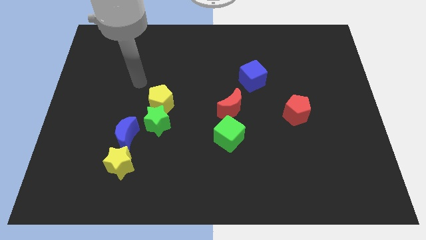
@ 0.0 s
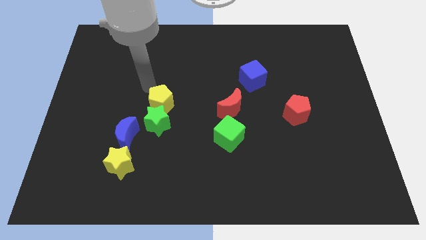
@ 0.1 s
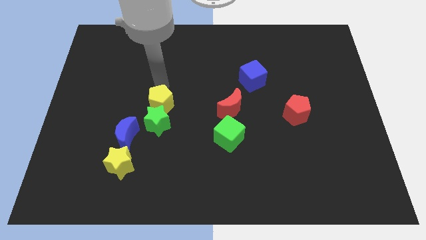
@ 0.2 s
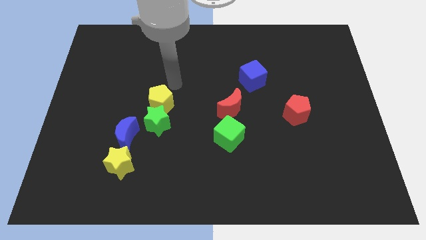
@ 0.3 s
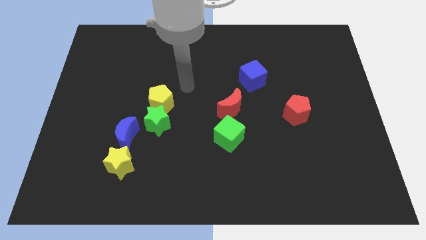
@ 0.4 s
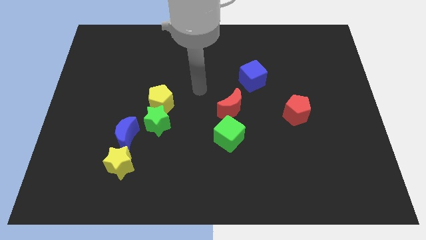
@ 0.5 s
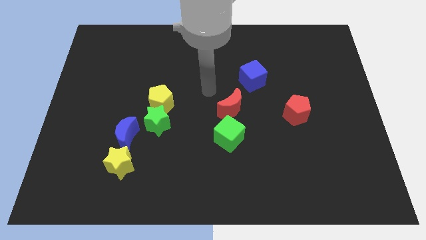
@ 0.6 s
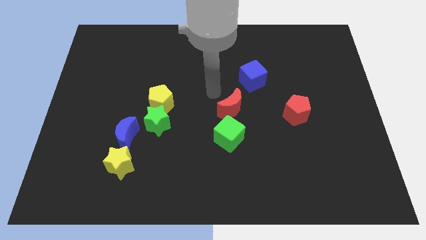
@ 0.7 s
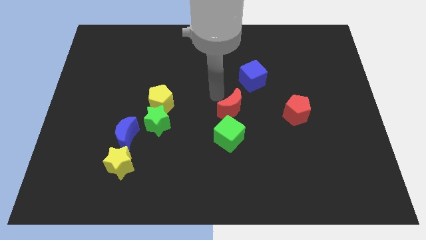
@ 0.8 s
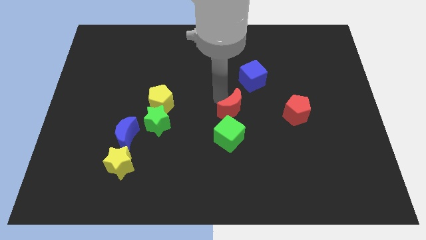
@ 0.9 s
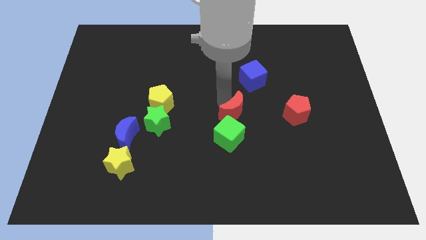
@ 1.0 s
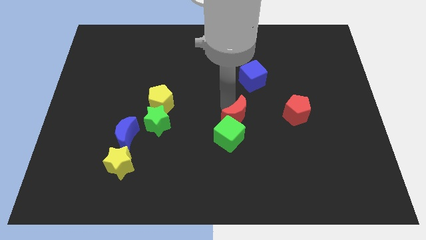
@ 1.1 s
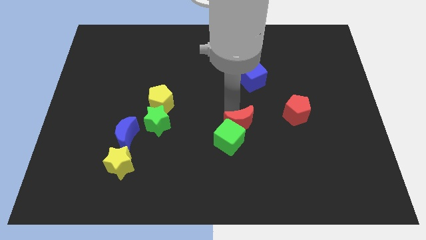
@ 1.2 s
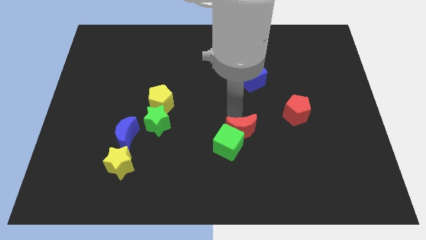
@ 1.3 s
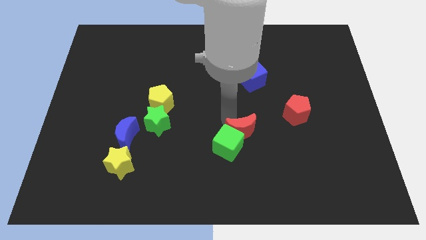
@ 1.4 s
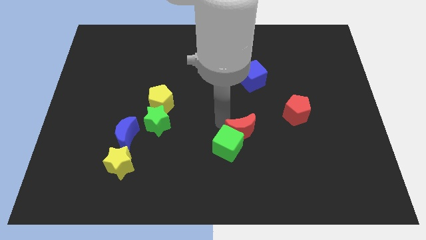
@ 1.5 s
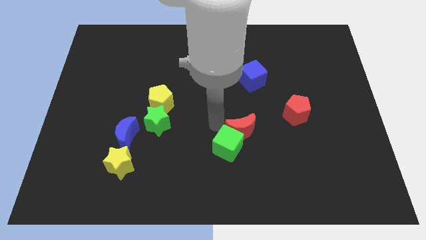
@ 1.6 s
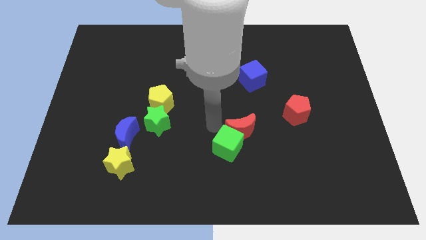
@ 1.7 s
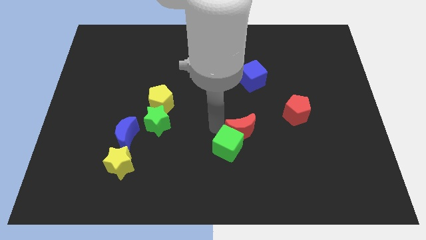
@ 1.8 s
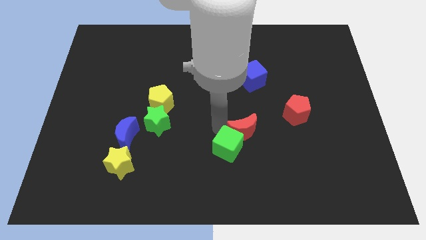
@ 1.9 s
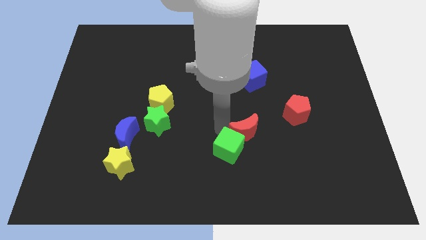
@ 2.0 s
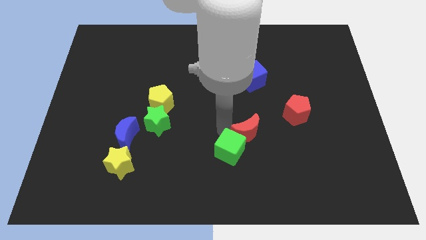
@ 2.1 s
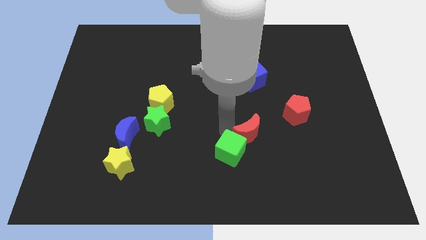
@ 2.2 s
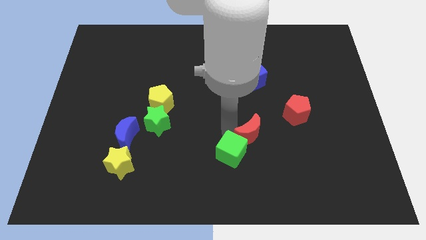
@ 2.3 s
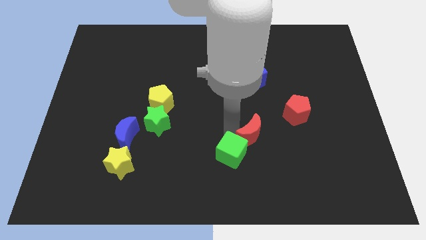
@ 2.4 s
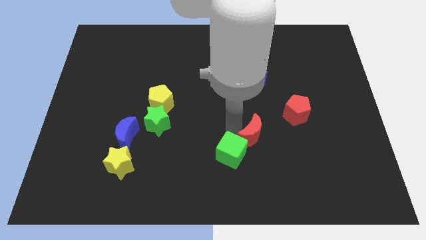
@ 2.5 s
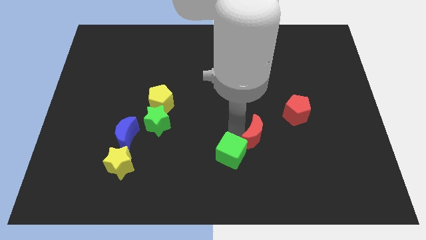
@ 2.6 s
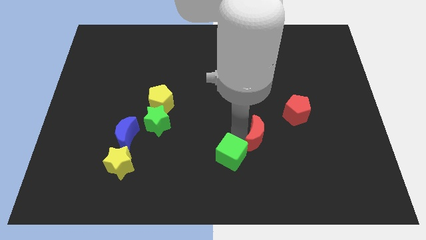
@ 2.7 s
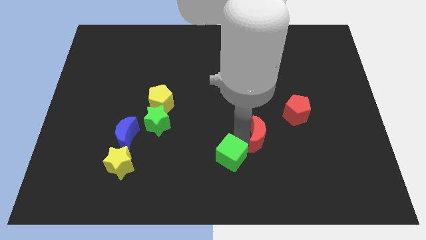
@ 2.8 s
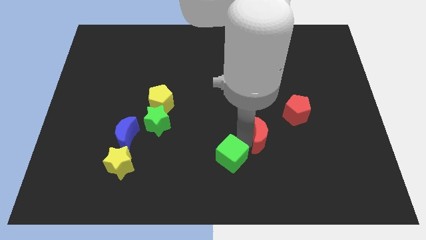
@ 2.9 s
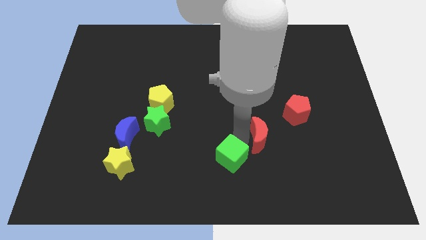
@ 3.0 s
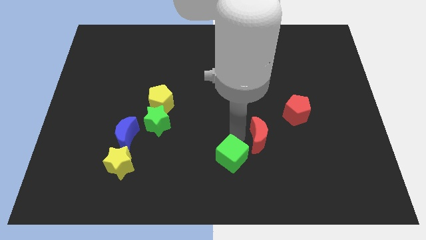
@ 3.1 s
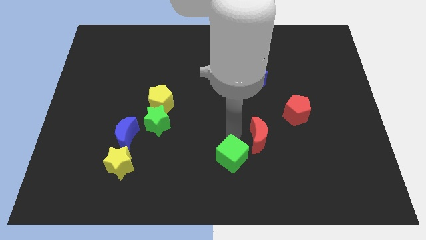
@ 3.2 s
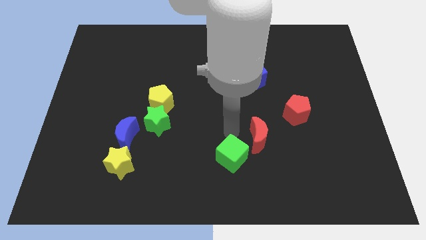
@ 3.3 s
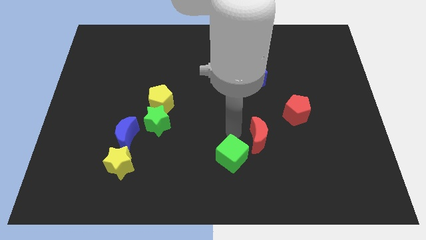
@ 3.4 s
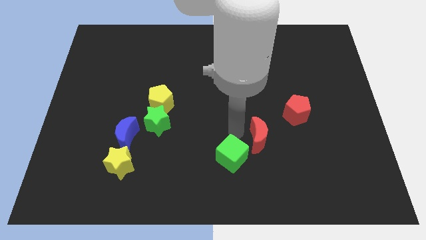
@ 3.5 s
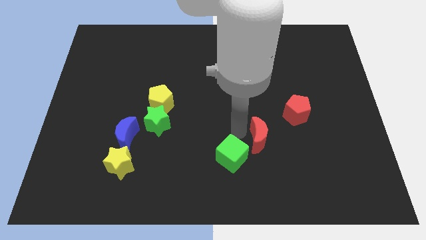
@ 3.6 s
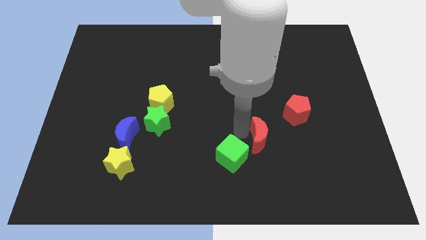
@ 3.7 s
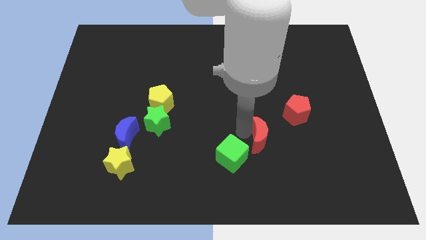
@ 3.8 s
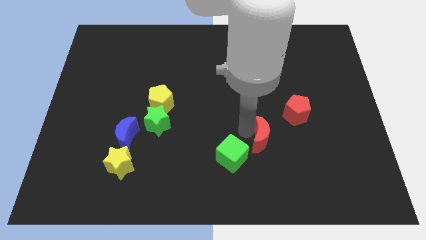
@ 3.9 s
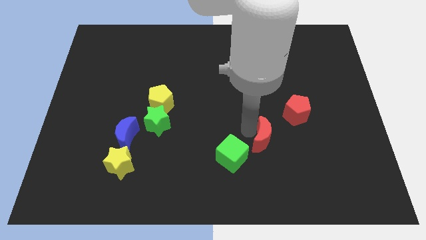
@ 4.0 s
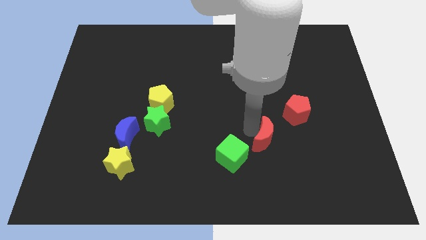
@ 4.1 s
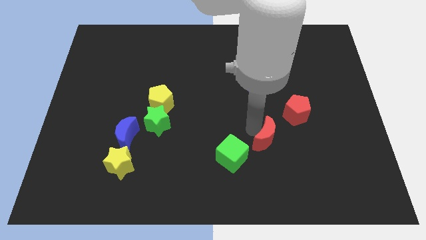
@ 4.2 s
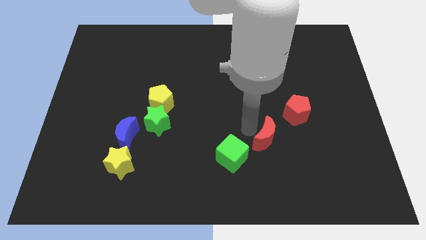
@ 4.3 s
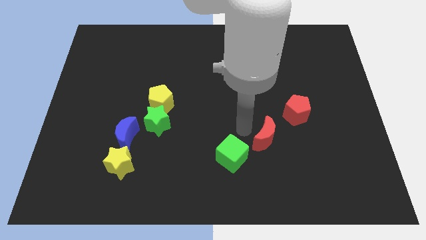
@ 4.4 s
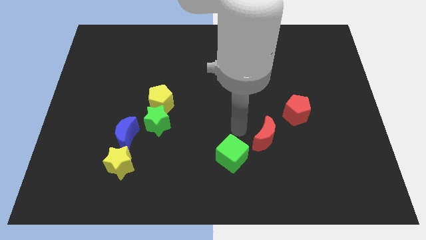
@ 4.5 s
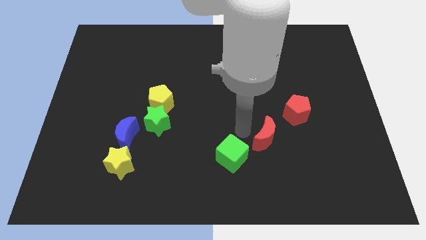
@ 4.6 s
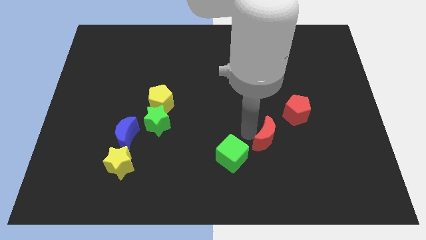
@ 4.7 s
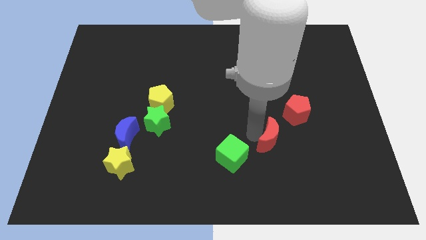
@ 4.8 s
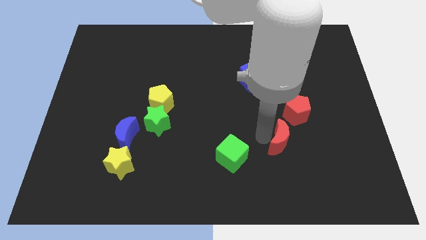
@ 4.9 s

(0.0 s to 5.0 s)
slide the red moon to the bottom side of the red pentagon

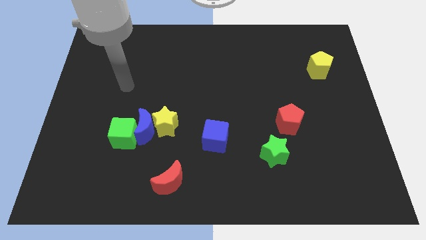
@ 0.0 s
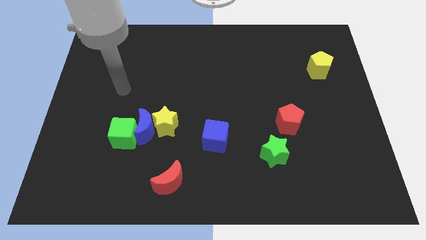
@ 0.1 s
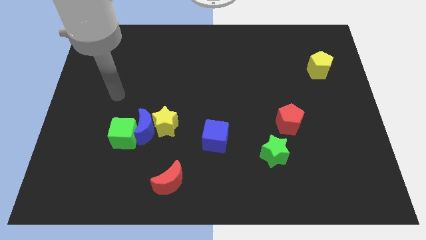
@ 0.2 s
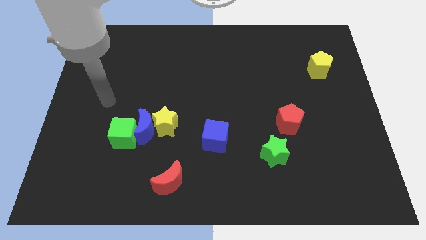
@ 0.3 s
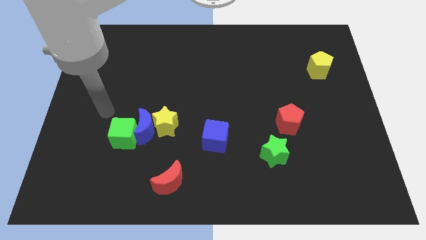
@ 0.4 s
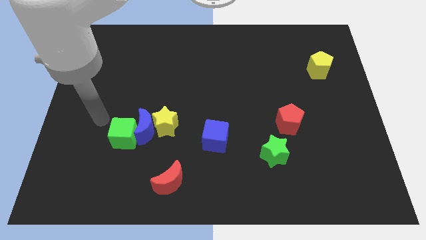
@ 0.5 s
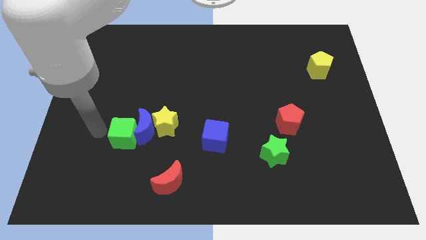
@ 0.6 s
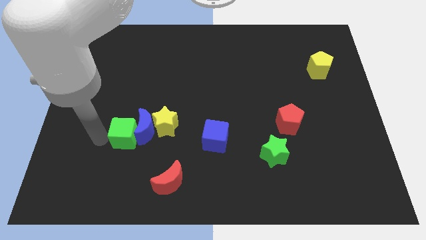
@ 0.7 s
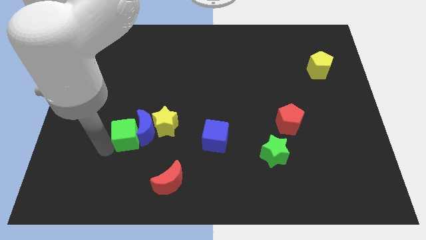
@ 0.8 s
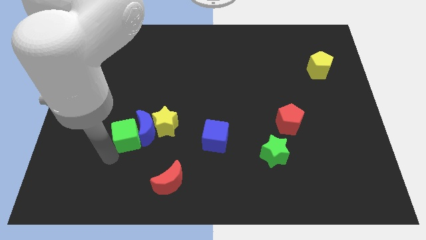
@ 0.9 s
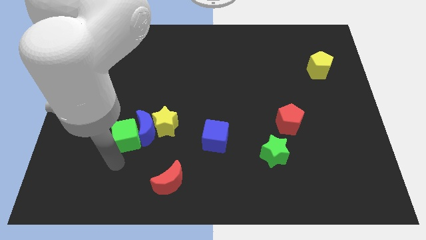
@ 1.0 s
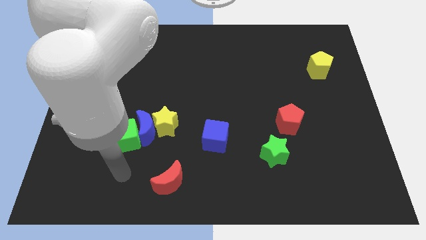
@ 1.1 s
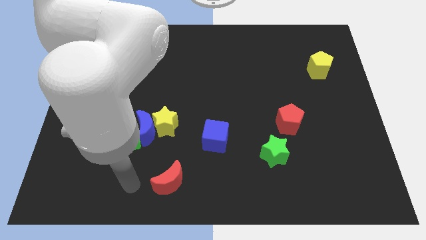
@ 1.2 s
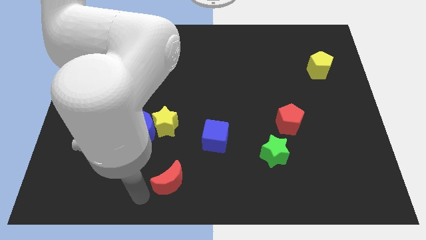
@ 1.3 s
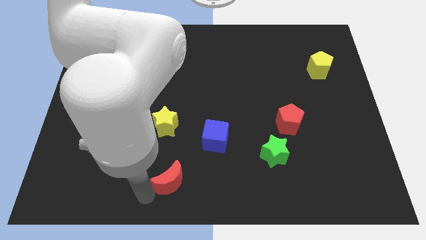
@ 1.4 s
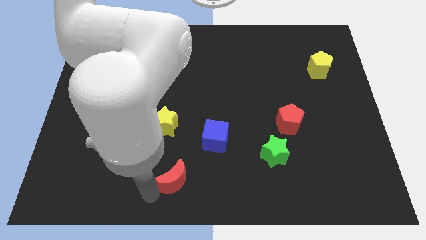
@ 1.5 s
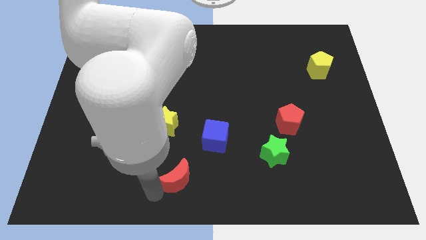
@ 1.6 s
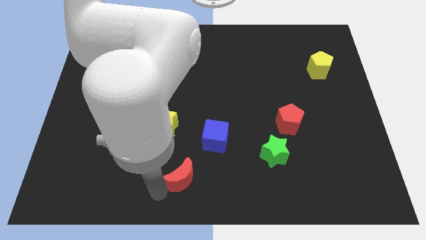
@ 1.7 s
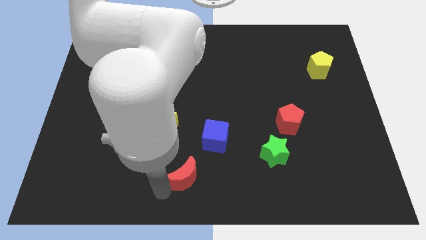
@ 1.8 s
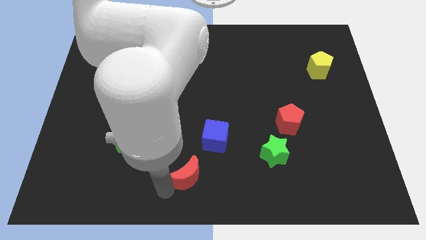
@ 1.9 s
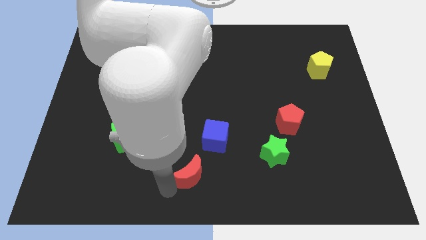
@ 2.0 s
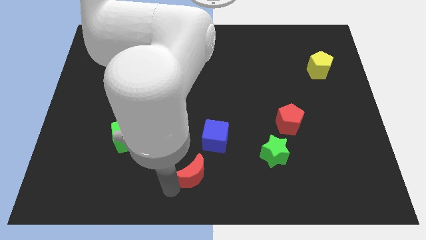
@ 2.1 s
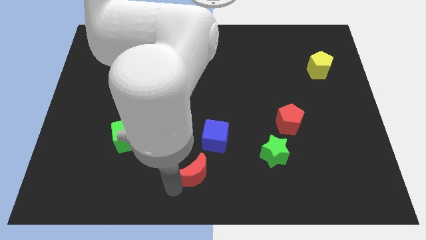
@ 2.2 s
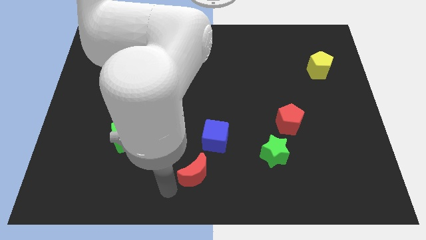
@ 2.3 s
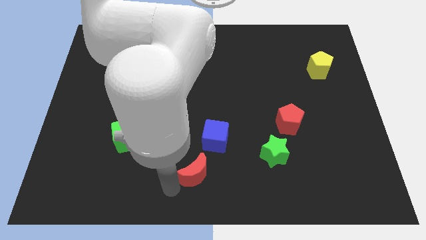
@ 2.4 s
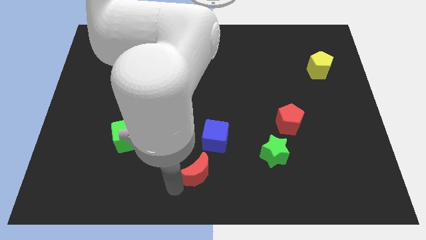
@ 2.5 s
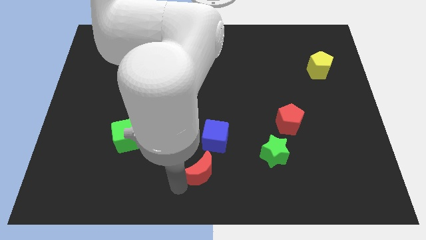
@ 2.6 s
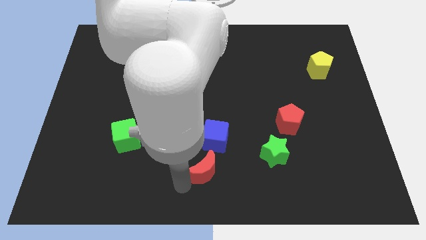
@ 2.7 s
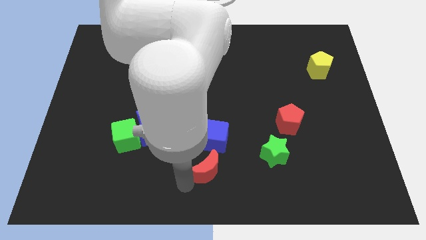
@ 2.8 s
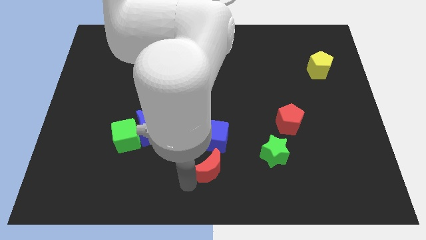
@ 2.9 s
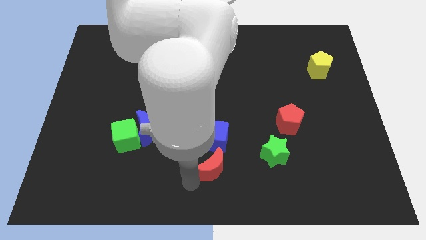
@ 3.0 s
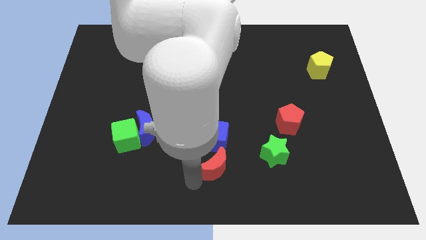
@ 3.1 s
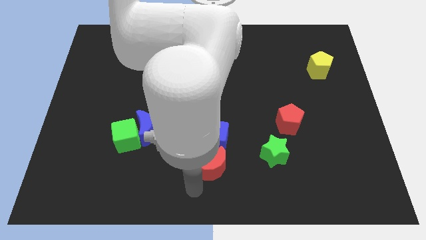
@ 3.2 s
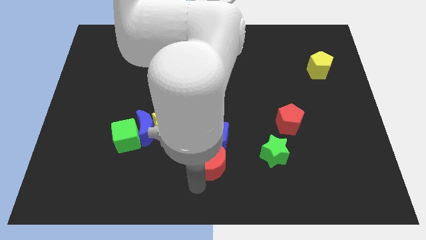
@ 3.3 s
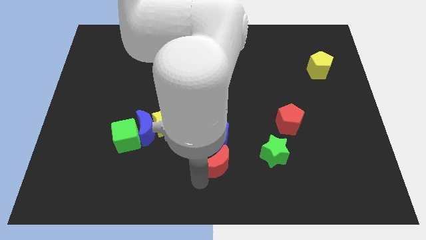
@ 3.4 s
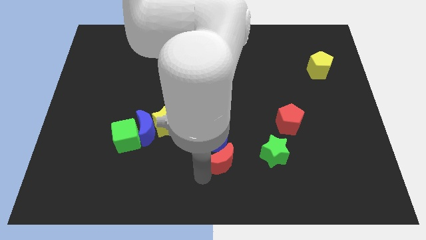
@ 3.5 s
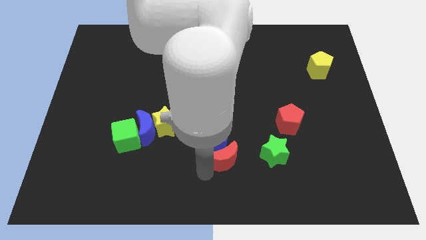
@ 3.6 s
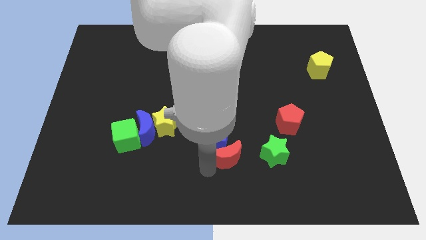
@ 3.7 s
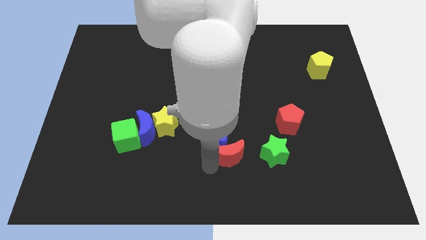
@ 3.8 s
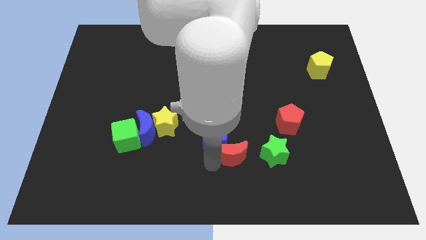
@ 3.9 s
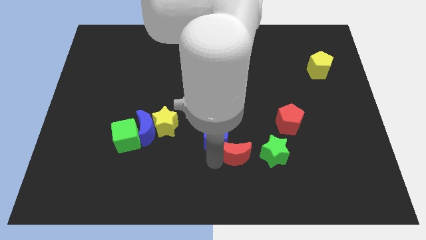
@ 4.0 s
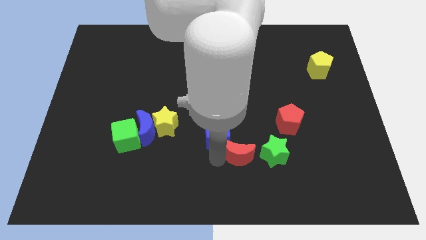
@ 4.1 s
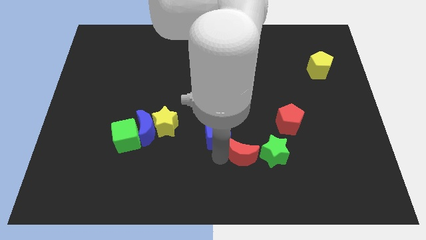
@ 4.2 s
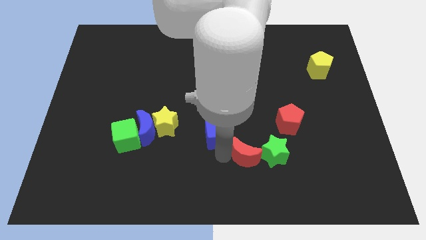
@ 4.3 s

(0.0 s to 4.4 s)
move the red moon to the top left of the green star
